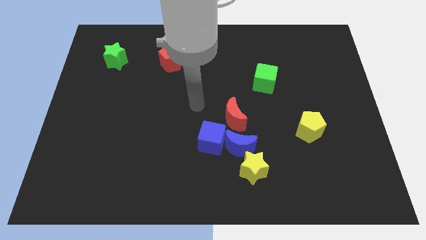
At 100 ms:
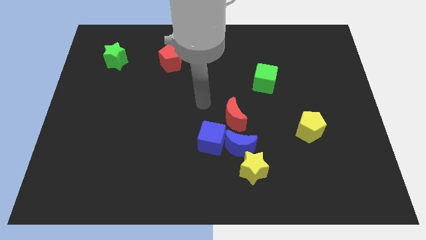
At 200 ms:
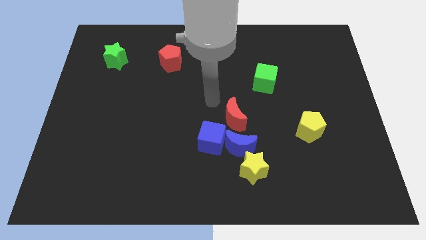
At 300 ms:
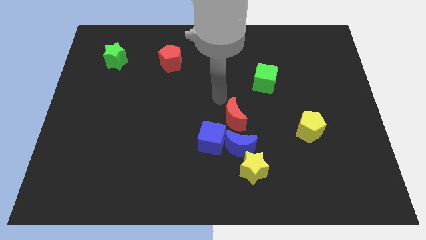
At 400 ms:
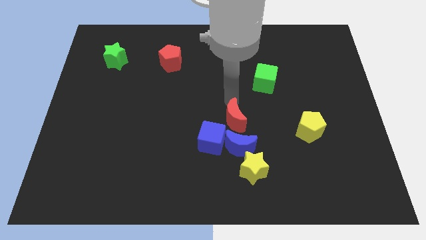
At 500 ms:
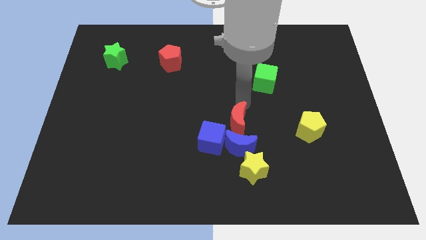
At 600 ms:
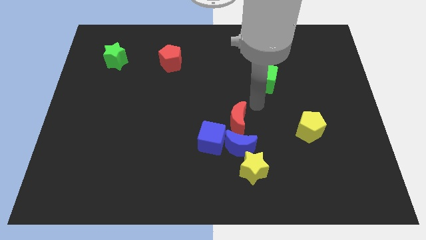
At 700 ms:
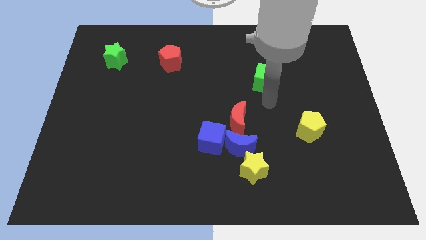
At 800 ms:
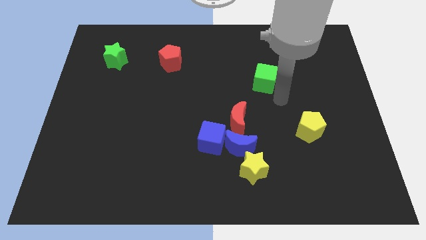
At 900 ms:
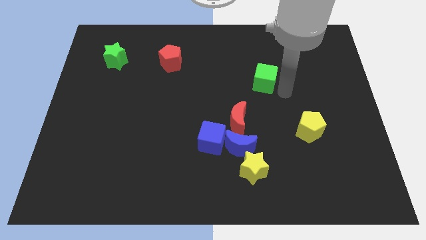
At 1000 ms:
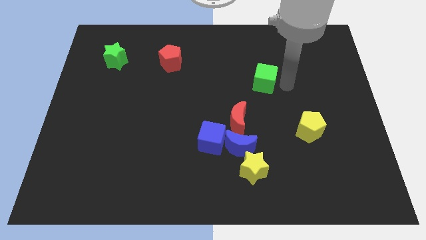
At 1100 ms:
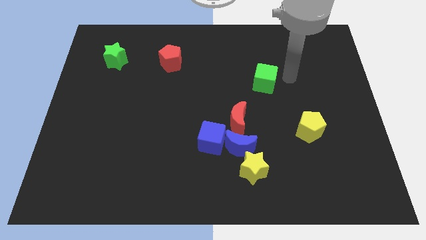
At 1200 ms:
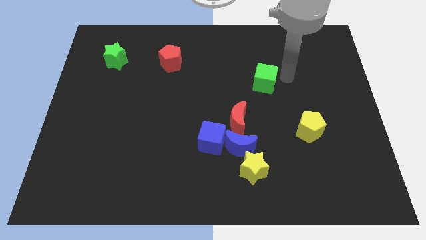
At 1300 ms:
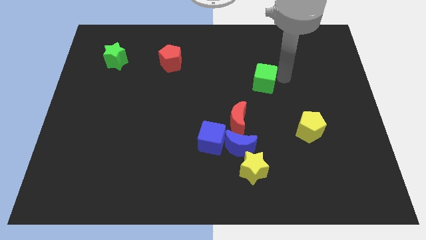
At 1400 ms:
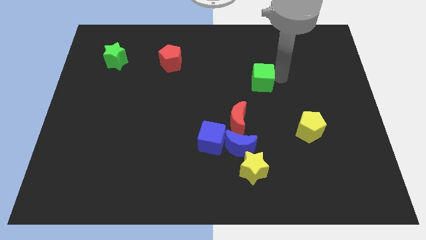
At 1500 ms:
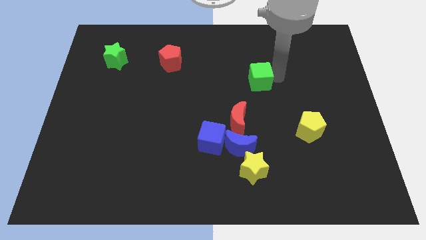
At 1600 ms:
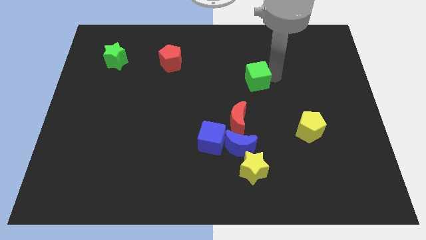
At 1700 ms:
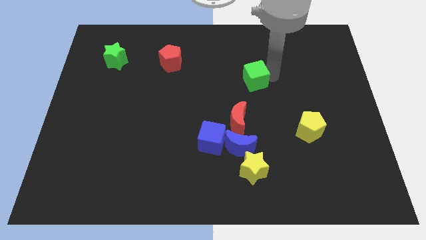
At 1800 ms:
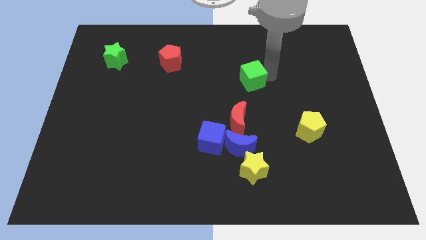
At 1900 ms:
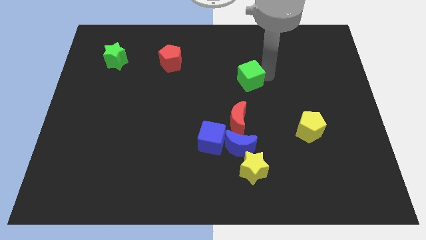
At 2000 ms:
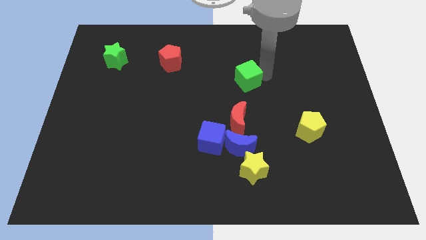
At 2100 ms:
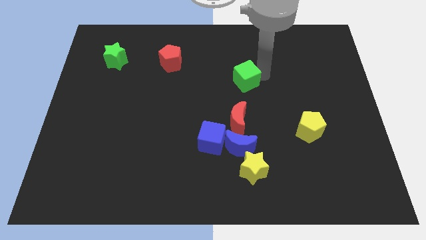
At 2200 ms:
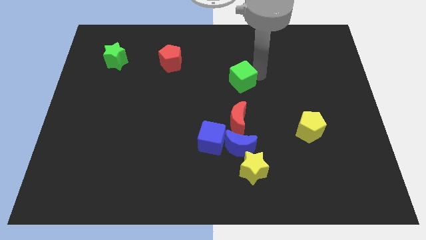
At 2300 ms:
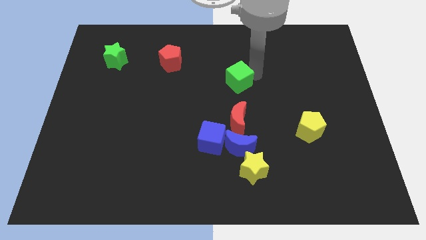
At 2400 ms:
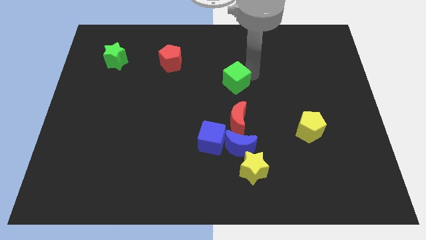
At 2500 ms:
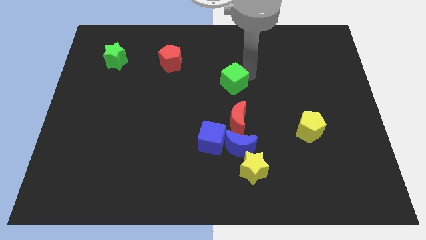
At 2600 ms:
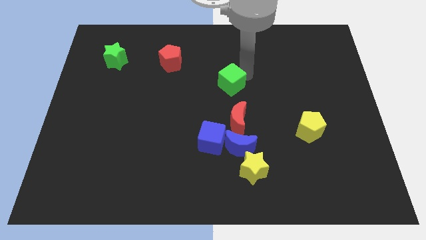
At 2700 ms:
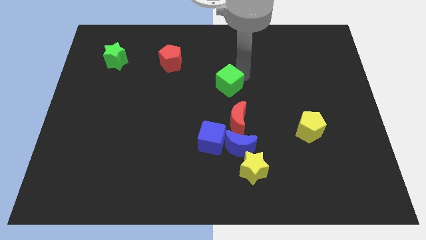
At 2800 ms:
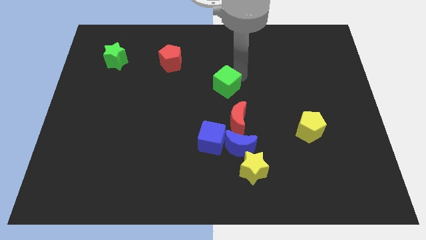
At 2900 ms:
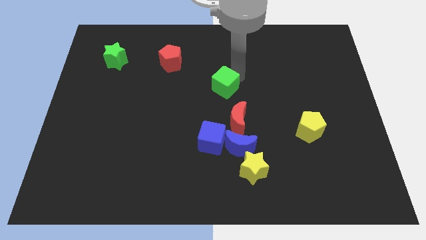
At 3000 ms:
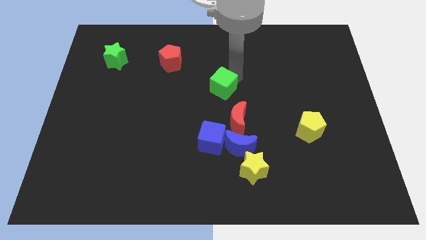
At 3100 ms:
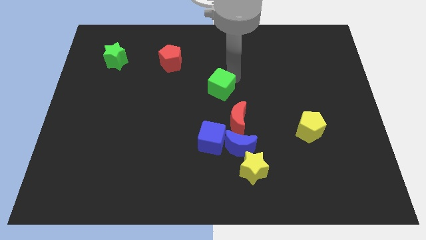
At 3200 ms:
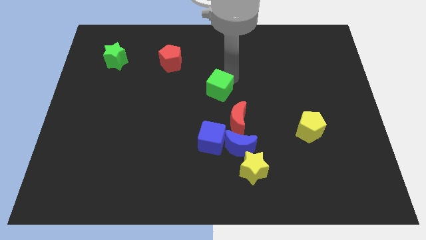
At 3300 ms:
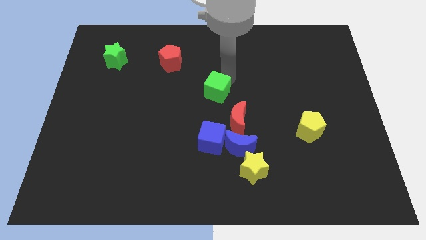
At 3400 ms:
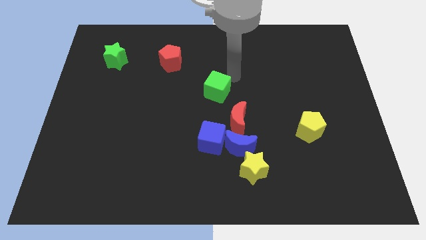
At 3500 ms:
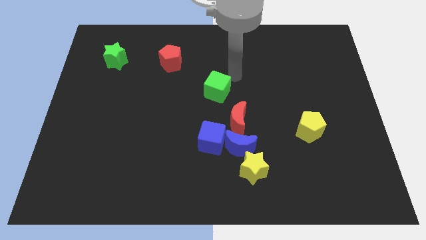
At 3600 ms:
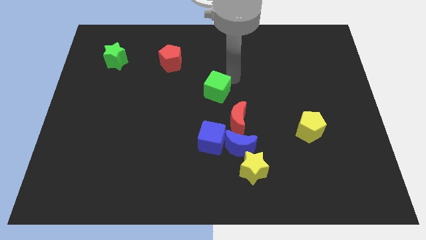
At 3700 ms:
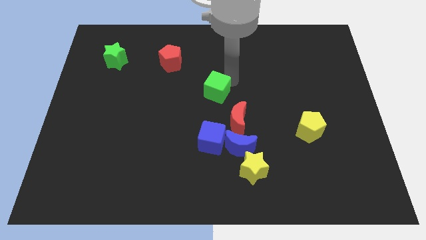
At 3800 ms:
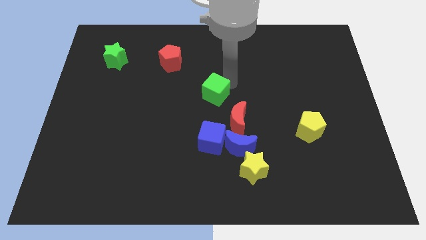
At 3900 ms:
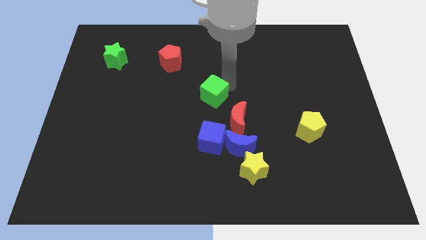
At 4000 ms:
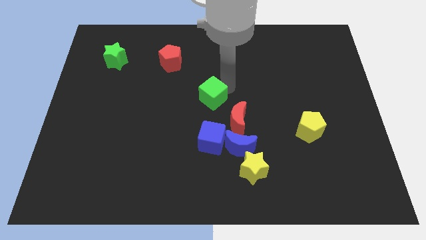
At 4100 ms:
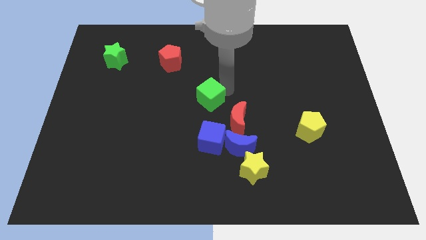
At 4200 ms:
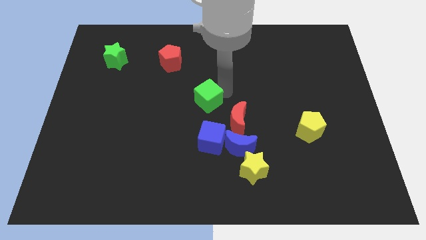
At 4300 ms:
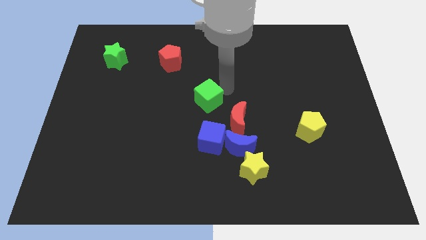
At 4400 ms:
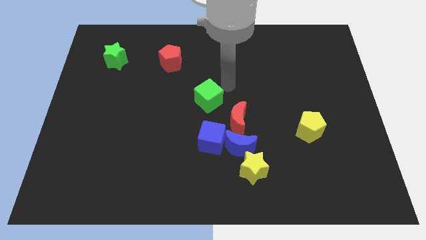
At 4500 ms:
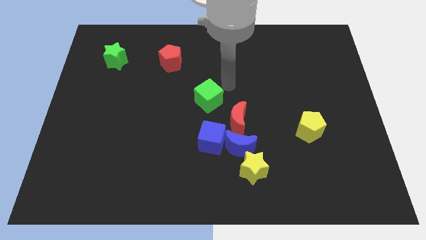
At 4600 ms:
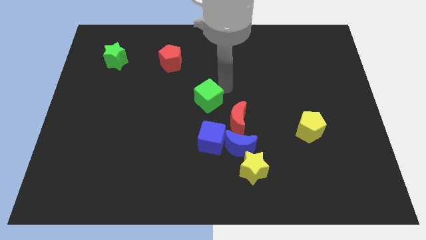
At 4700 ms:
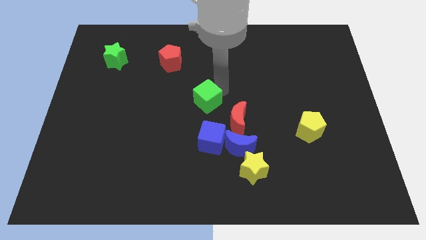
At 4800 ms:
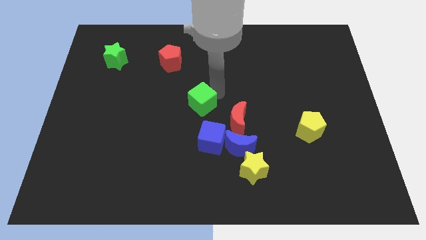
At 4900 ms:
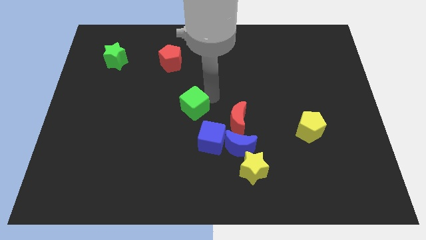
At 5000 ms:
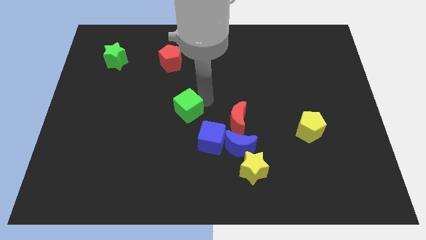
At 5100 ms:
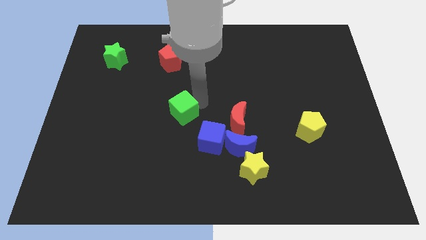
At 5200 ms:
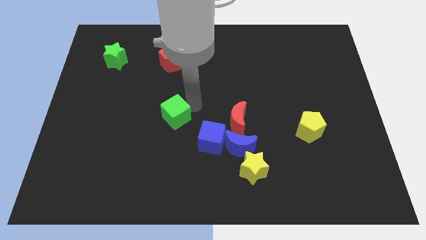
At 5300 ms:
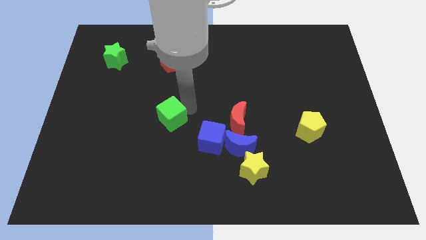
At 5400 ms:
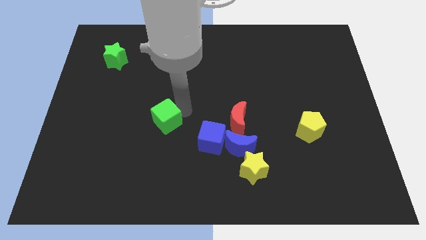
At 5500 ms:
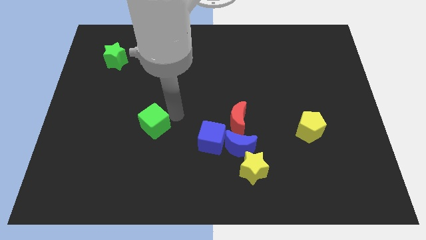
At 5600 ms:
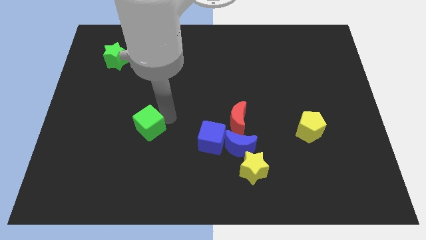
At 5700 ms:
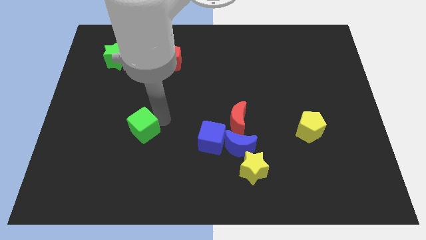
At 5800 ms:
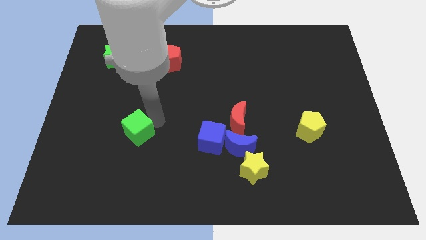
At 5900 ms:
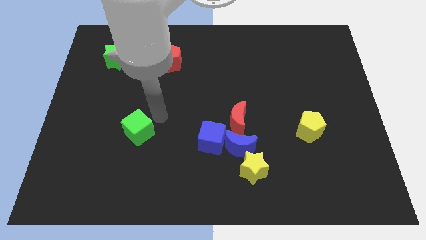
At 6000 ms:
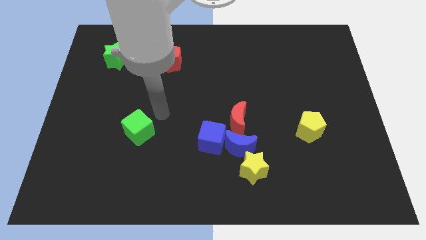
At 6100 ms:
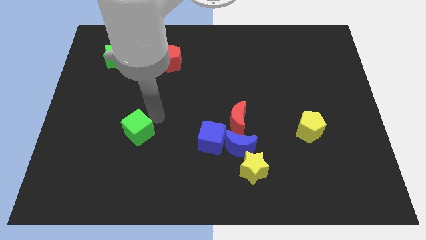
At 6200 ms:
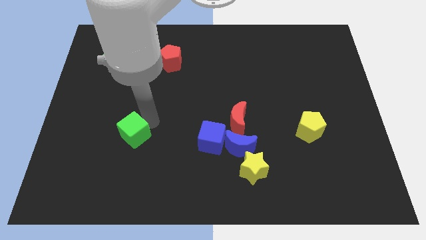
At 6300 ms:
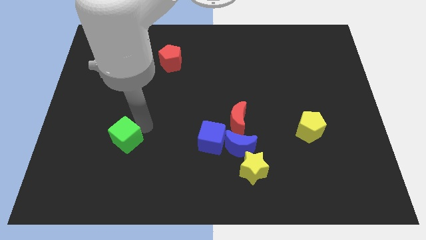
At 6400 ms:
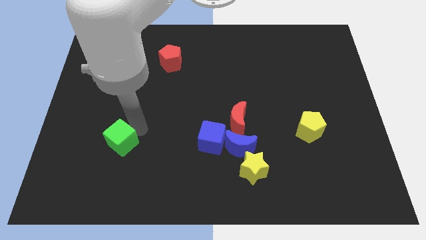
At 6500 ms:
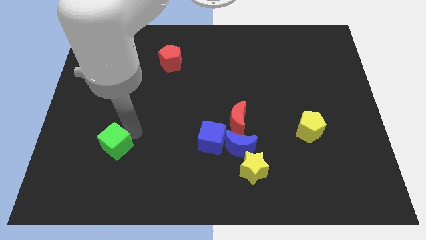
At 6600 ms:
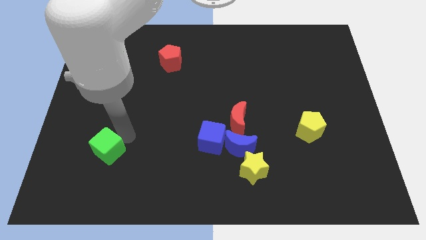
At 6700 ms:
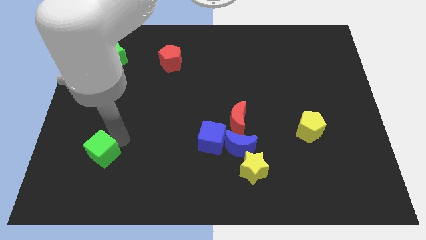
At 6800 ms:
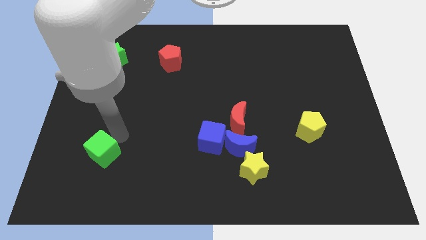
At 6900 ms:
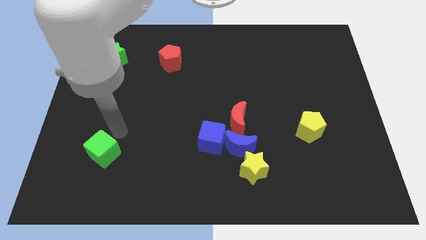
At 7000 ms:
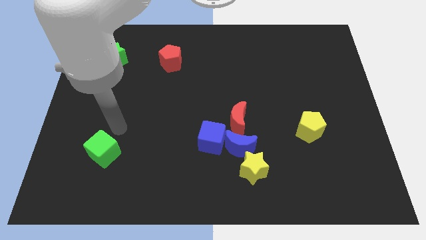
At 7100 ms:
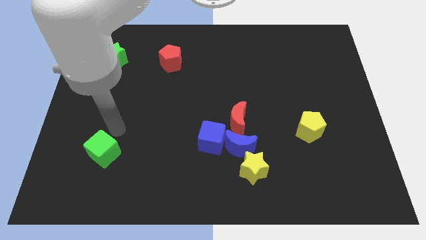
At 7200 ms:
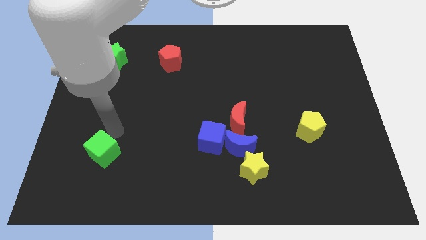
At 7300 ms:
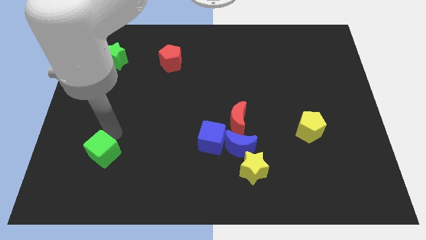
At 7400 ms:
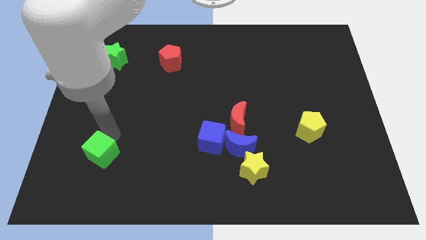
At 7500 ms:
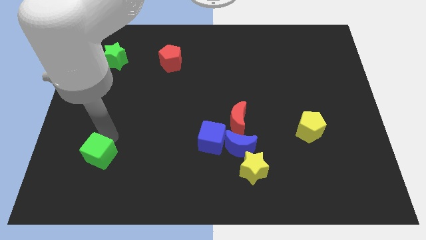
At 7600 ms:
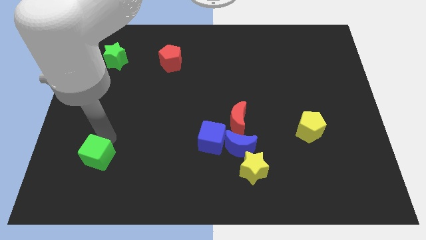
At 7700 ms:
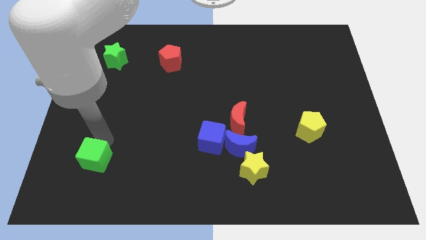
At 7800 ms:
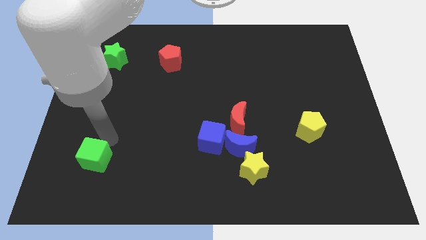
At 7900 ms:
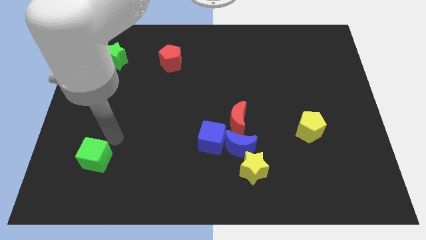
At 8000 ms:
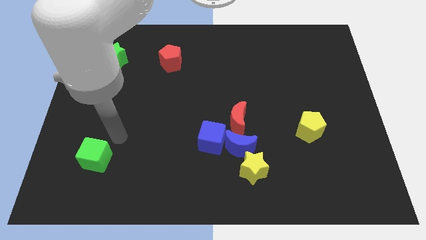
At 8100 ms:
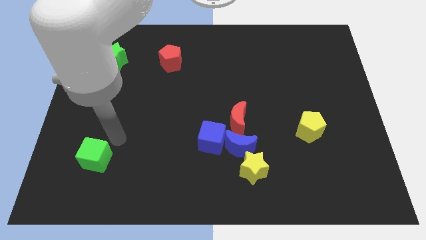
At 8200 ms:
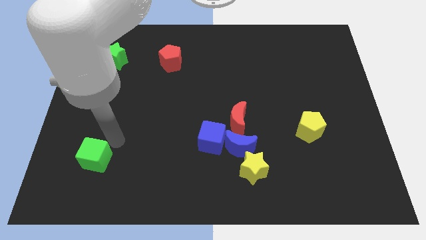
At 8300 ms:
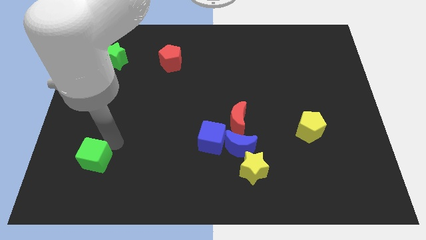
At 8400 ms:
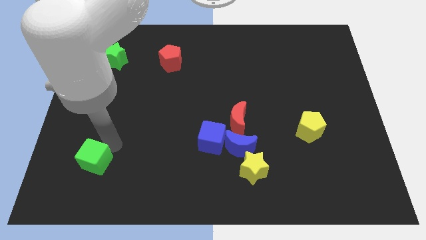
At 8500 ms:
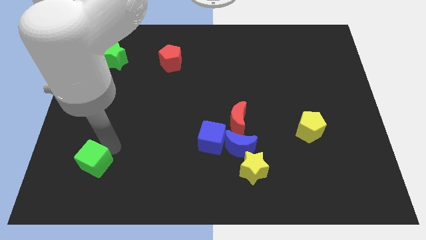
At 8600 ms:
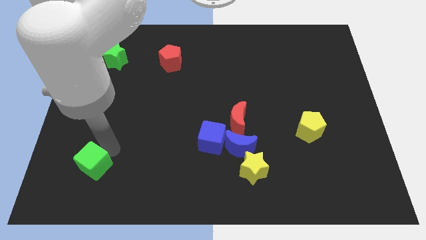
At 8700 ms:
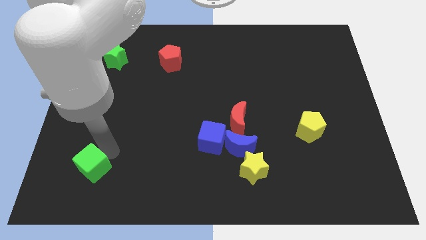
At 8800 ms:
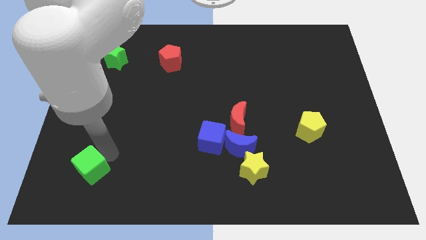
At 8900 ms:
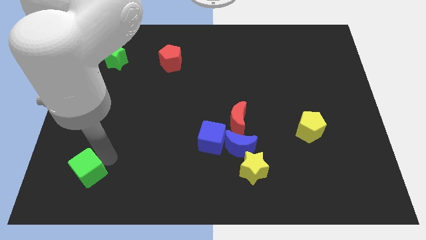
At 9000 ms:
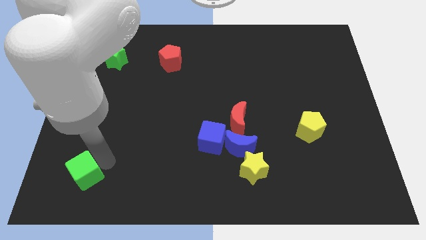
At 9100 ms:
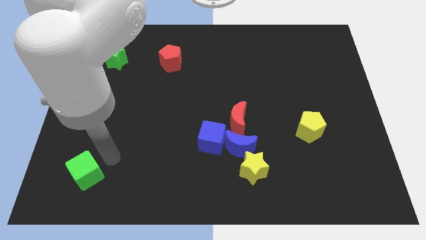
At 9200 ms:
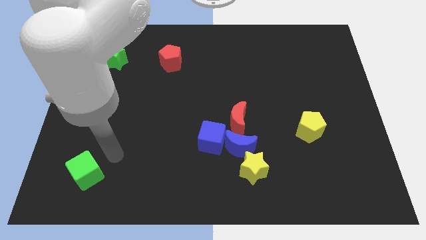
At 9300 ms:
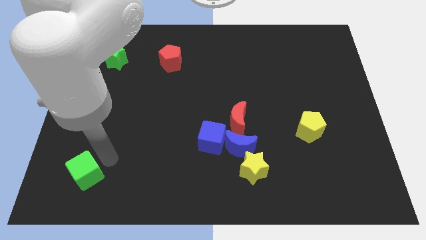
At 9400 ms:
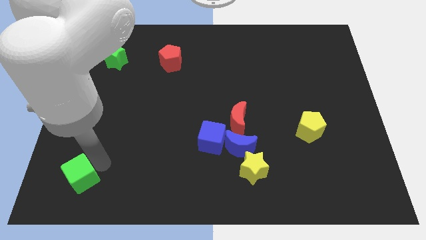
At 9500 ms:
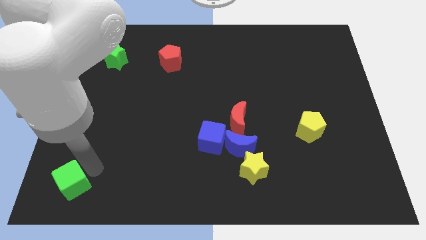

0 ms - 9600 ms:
put the green cube to the bottom left
